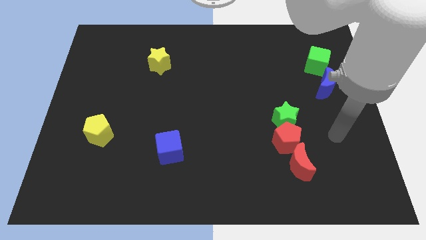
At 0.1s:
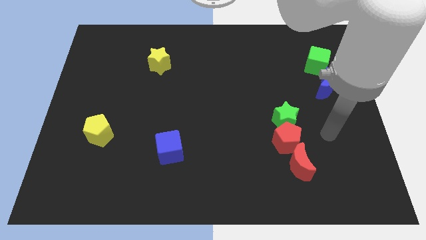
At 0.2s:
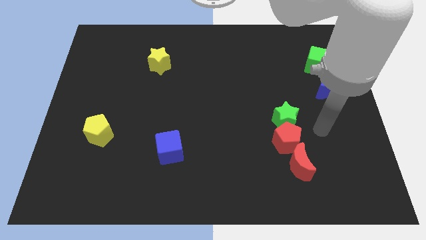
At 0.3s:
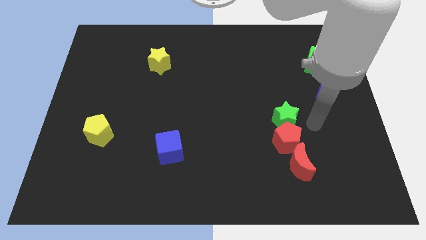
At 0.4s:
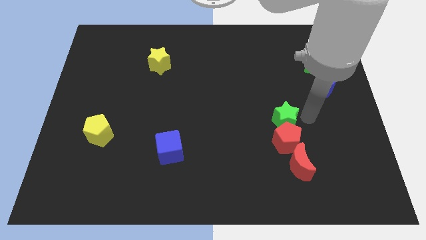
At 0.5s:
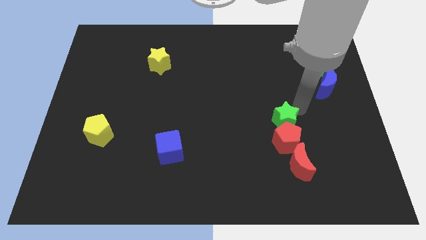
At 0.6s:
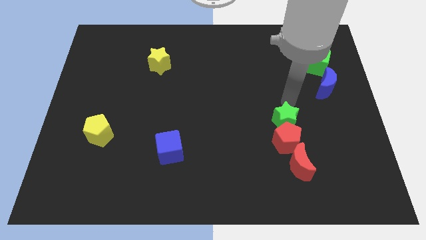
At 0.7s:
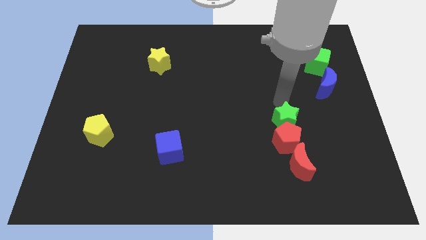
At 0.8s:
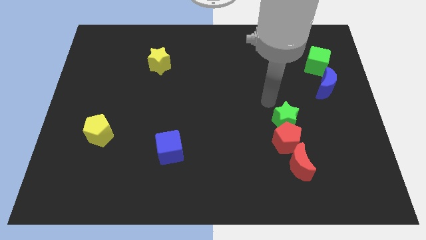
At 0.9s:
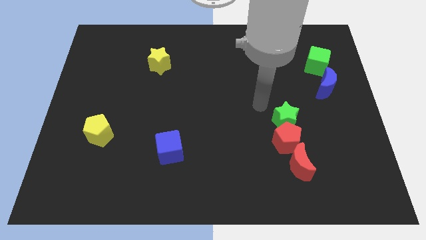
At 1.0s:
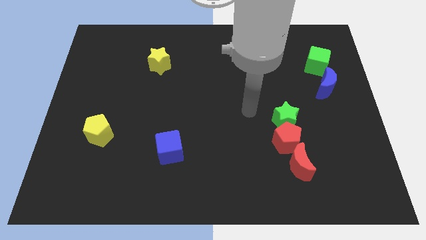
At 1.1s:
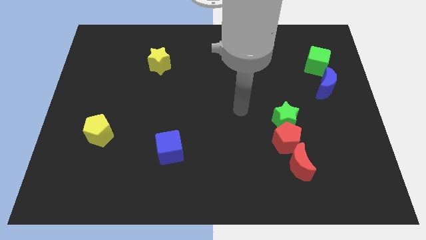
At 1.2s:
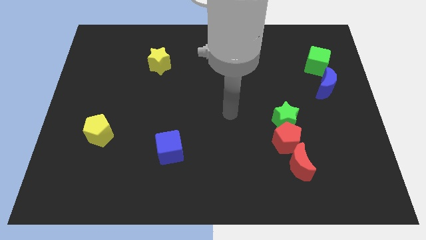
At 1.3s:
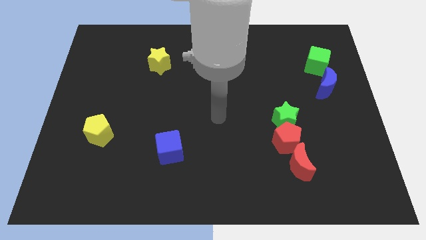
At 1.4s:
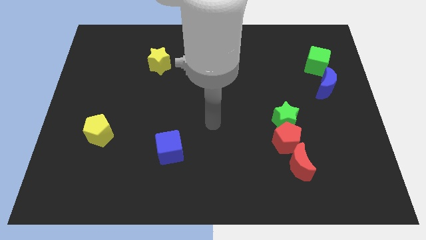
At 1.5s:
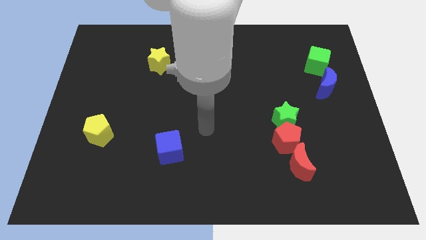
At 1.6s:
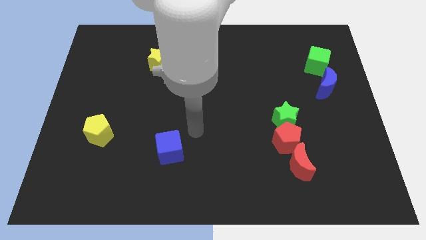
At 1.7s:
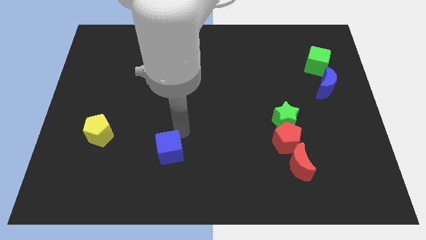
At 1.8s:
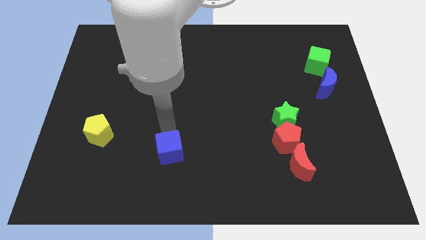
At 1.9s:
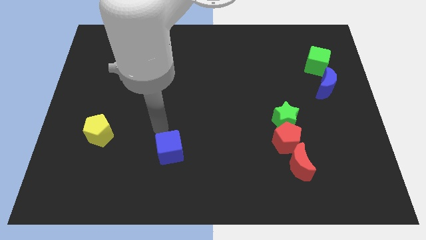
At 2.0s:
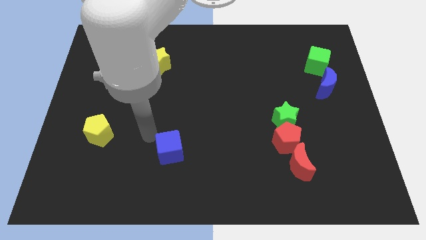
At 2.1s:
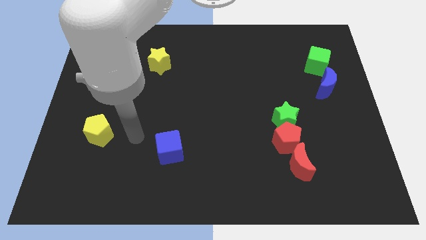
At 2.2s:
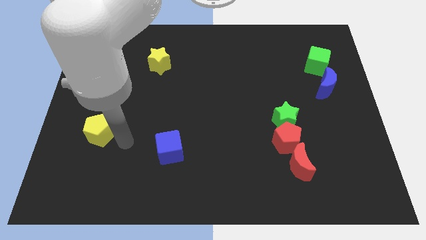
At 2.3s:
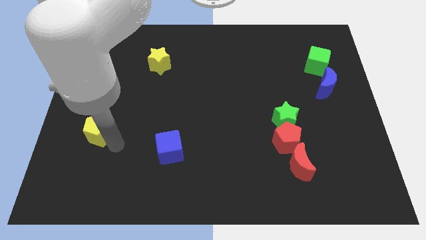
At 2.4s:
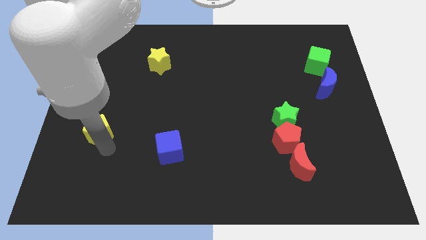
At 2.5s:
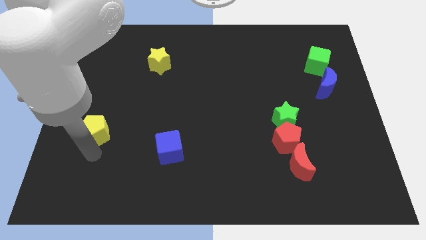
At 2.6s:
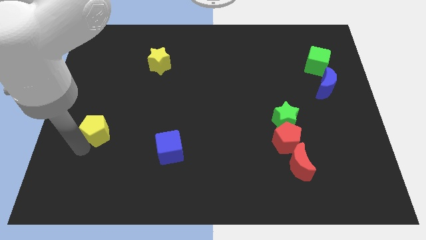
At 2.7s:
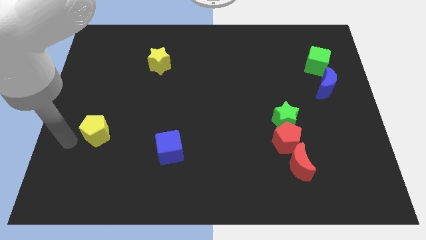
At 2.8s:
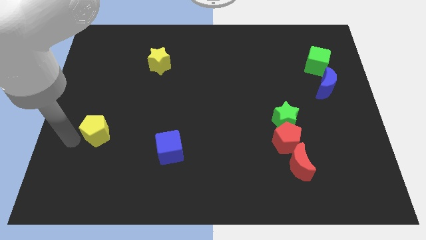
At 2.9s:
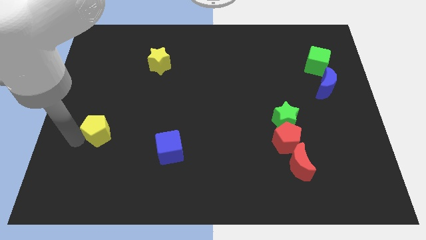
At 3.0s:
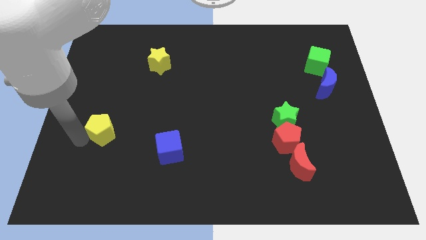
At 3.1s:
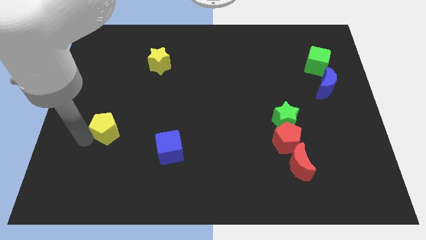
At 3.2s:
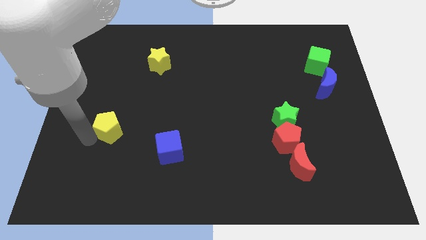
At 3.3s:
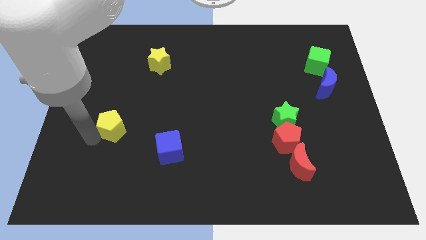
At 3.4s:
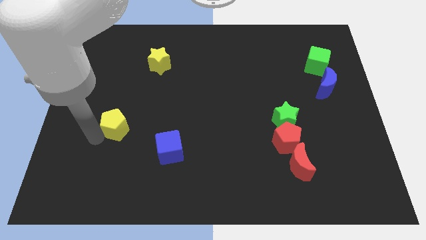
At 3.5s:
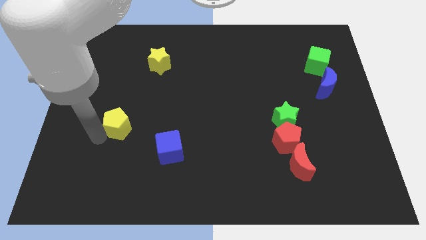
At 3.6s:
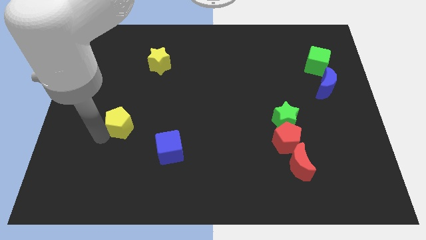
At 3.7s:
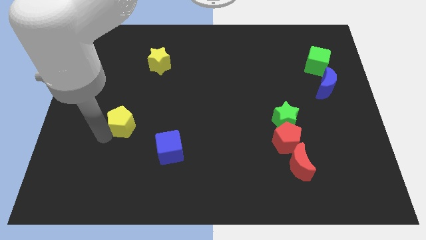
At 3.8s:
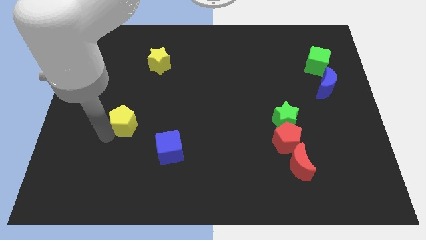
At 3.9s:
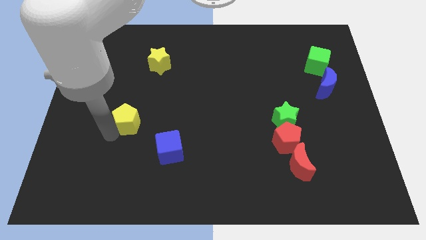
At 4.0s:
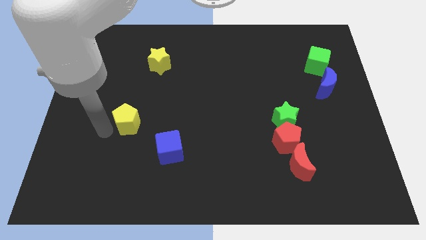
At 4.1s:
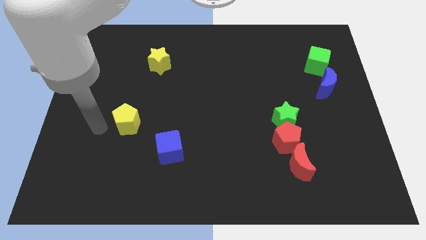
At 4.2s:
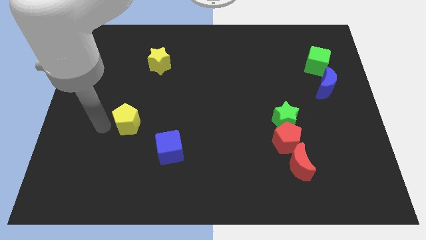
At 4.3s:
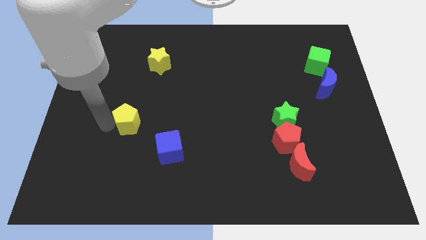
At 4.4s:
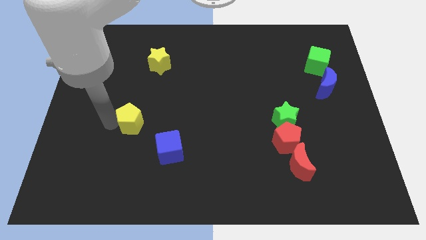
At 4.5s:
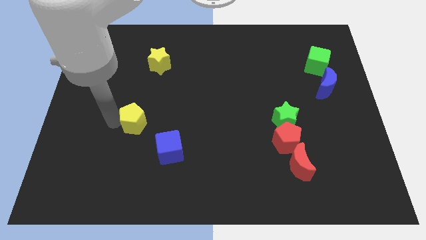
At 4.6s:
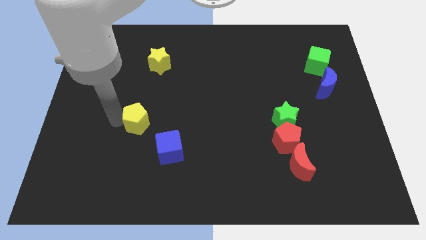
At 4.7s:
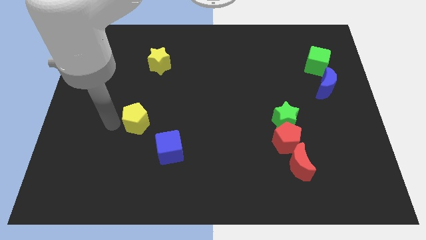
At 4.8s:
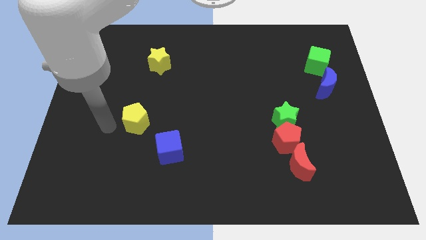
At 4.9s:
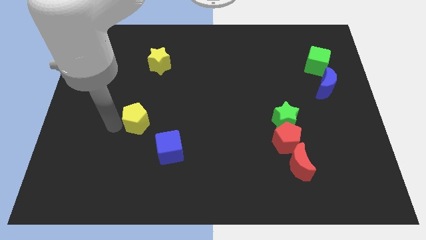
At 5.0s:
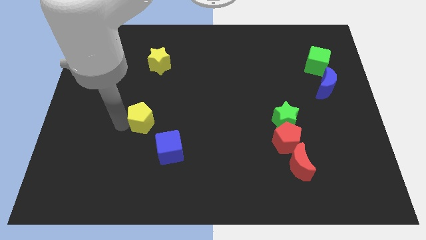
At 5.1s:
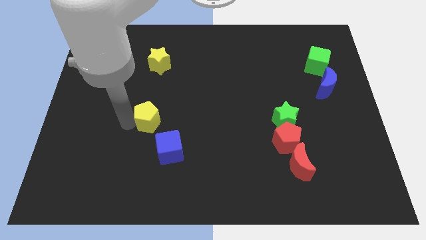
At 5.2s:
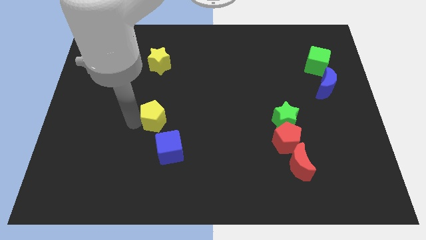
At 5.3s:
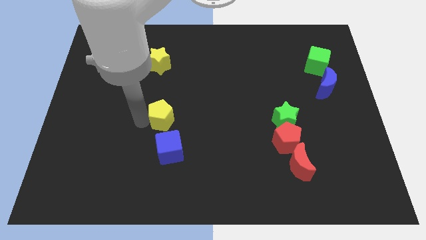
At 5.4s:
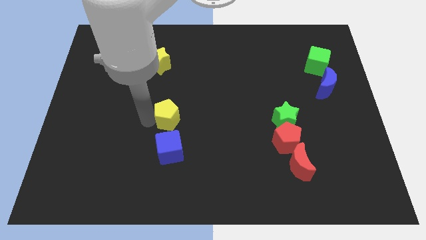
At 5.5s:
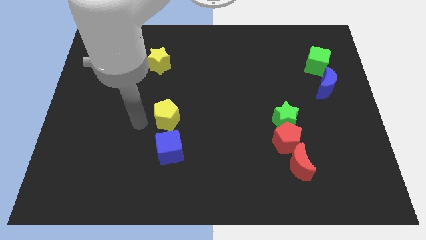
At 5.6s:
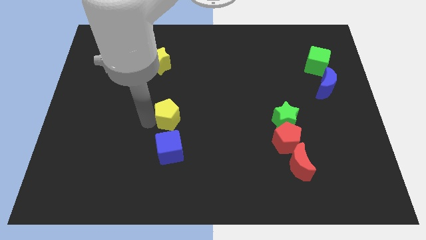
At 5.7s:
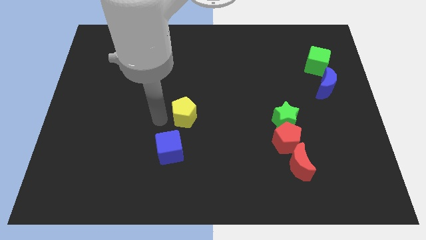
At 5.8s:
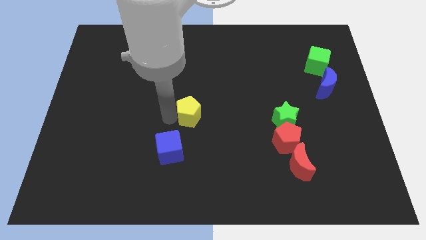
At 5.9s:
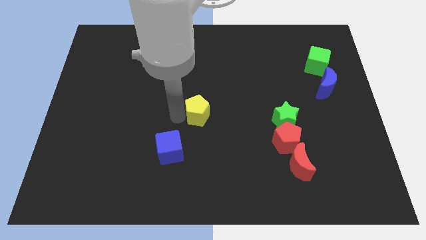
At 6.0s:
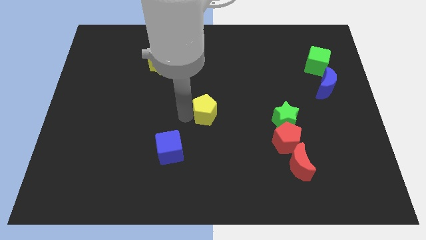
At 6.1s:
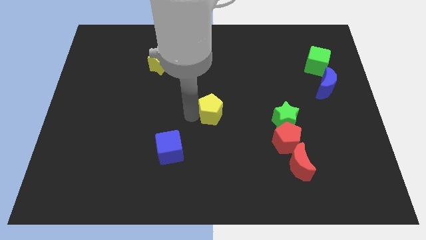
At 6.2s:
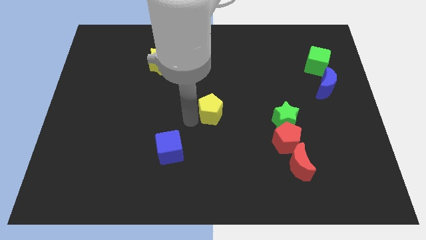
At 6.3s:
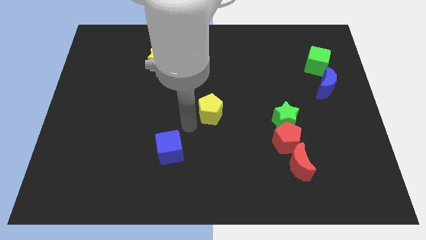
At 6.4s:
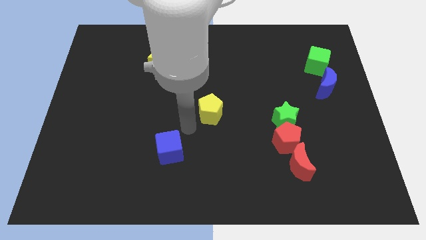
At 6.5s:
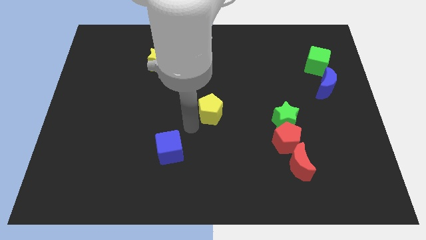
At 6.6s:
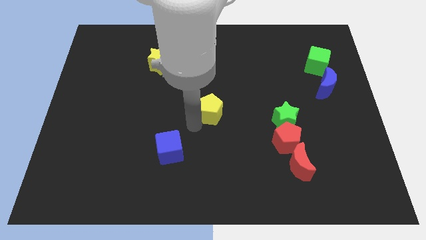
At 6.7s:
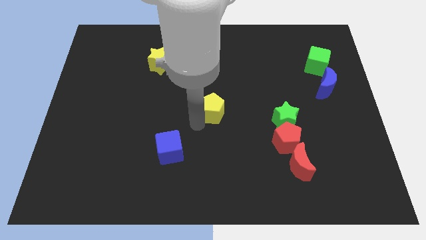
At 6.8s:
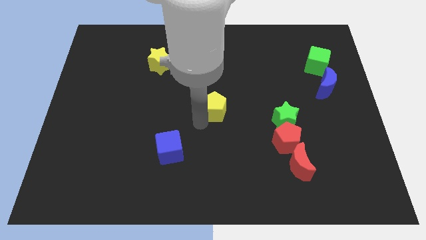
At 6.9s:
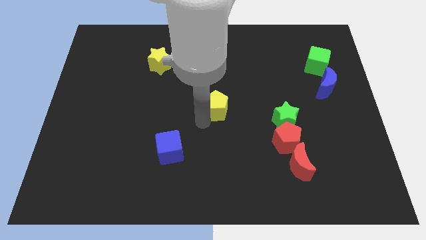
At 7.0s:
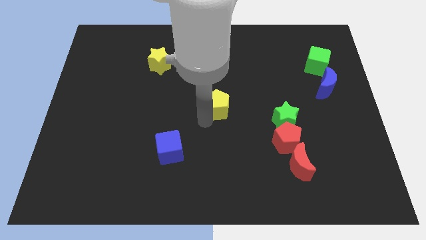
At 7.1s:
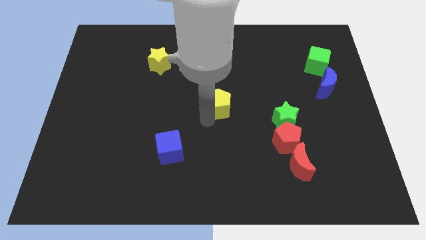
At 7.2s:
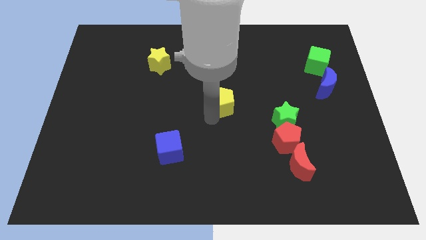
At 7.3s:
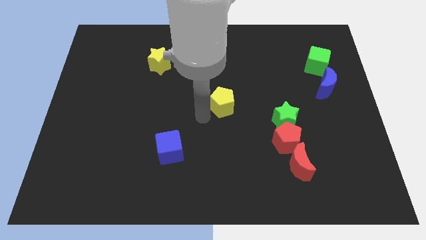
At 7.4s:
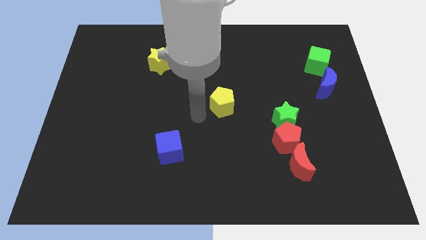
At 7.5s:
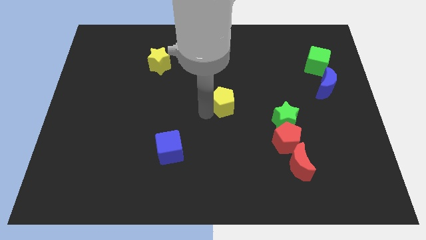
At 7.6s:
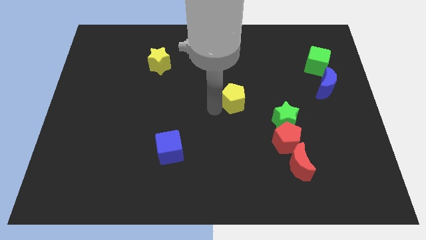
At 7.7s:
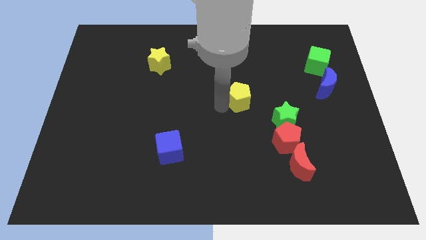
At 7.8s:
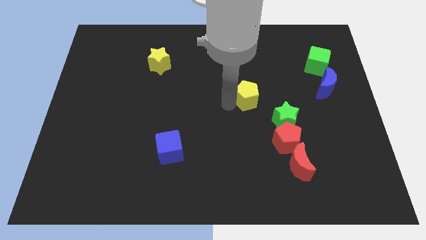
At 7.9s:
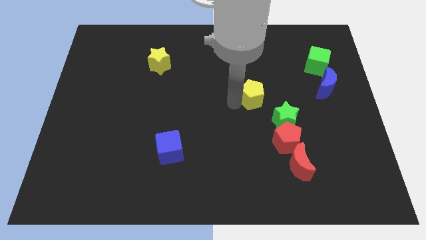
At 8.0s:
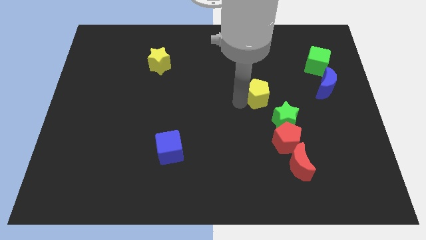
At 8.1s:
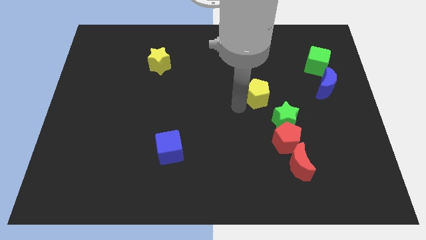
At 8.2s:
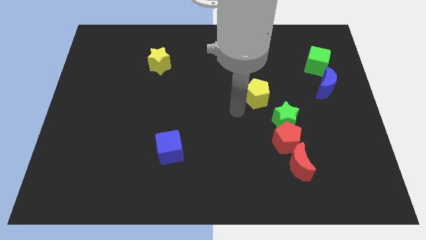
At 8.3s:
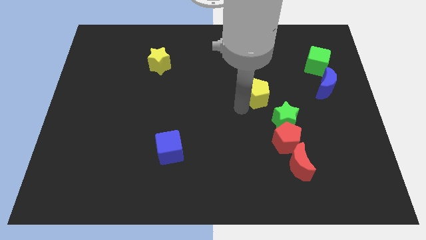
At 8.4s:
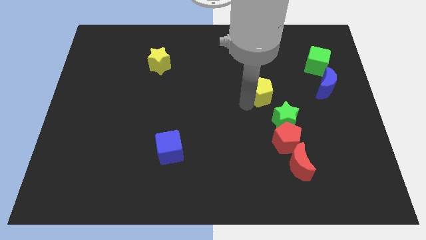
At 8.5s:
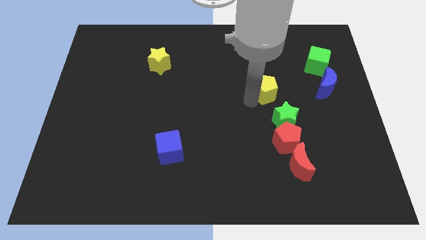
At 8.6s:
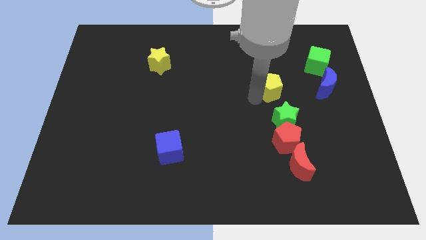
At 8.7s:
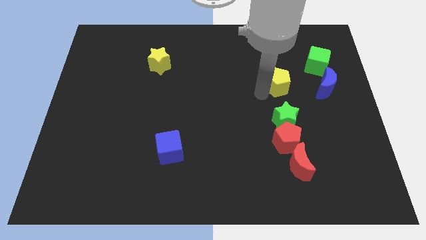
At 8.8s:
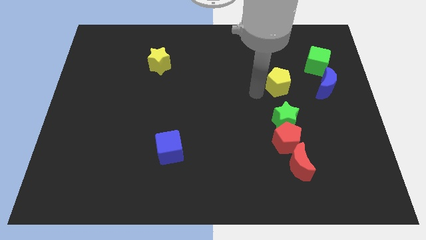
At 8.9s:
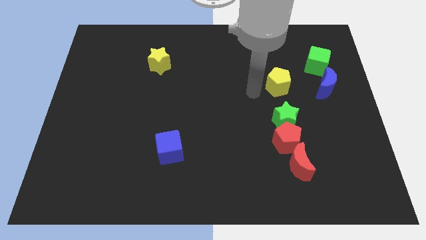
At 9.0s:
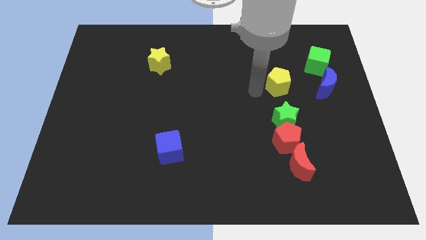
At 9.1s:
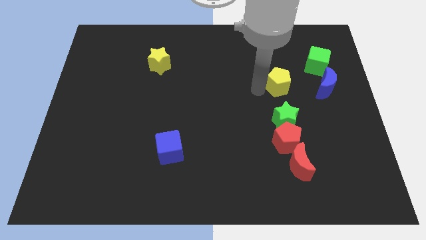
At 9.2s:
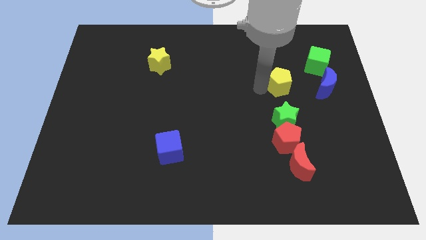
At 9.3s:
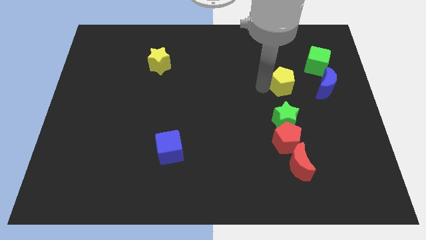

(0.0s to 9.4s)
slide the yellow pentagon diagonally down and to the left of the green cube
